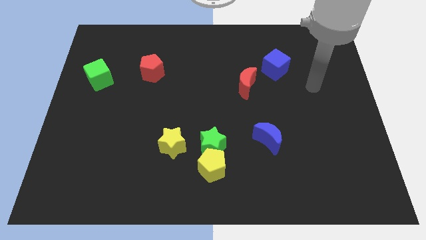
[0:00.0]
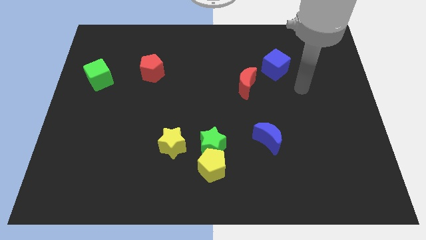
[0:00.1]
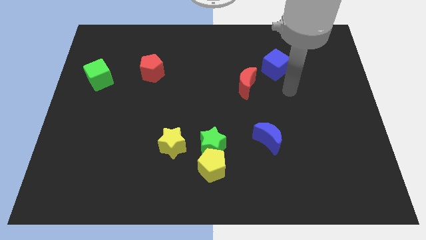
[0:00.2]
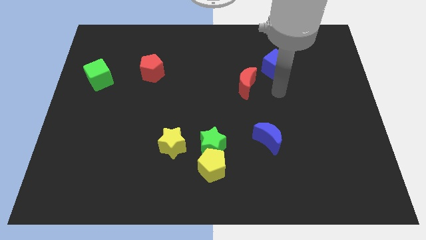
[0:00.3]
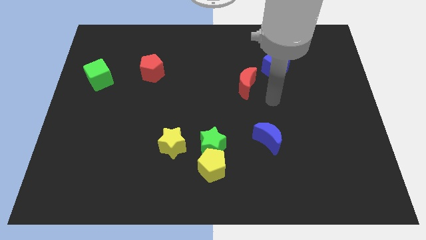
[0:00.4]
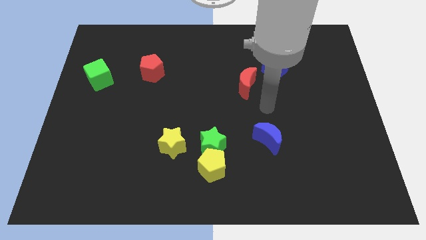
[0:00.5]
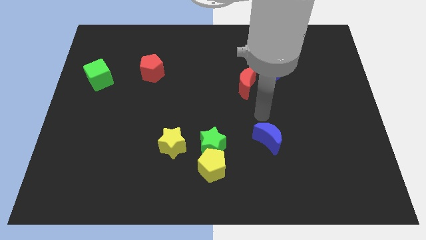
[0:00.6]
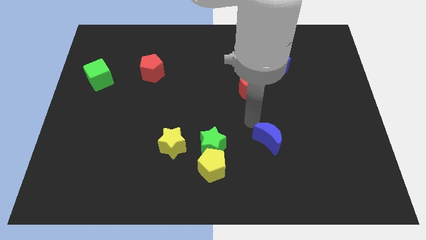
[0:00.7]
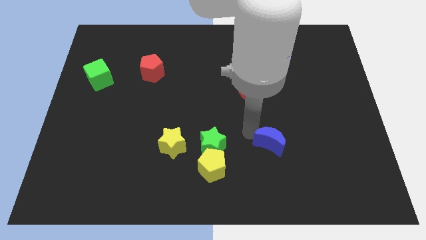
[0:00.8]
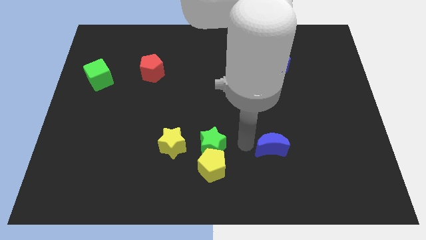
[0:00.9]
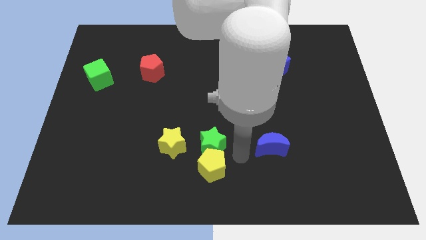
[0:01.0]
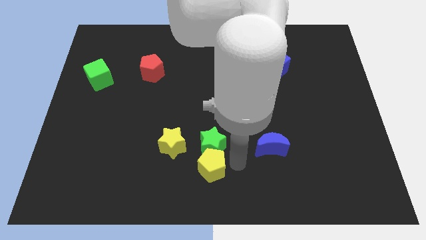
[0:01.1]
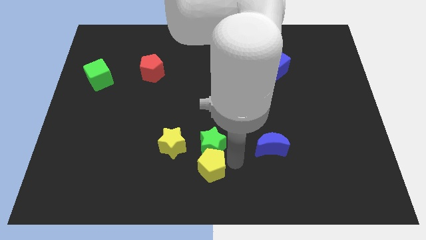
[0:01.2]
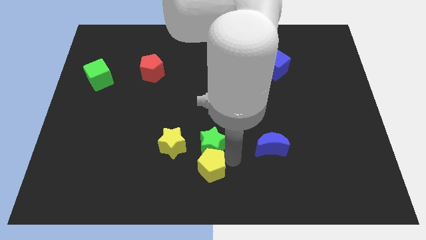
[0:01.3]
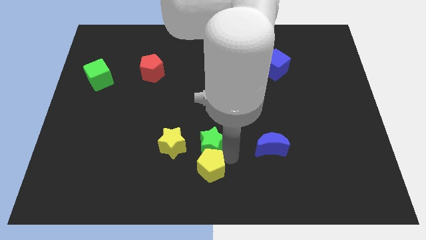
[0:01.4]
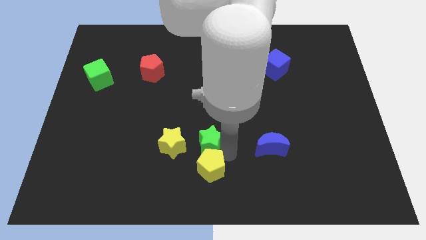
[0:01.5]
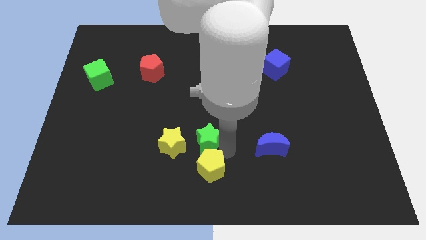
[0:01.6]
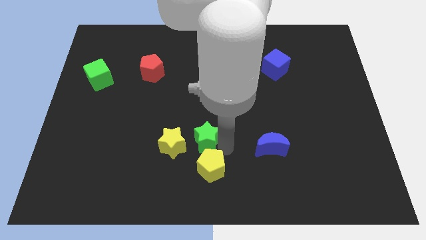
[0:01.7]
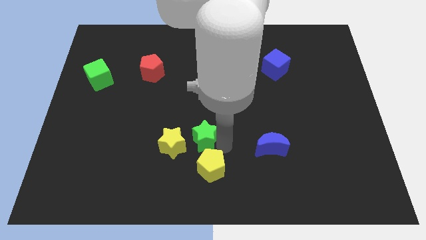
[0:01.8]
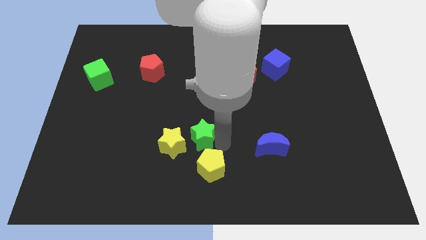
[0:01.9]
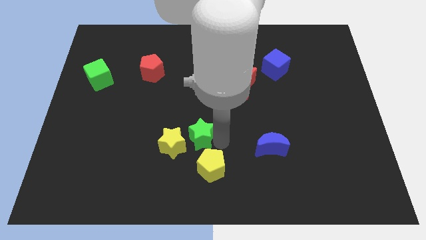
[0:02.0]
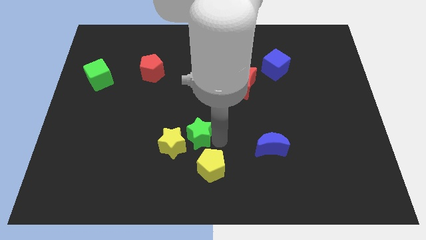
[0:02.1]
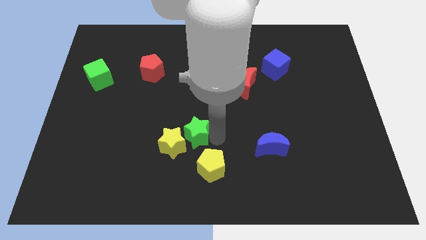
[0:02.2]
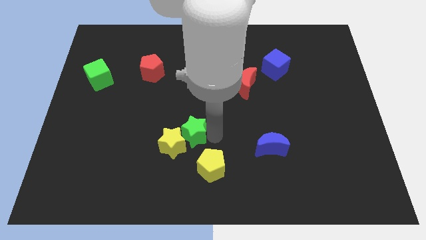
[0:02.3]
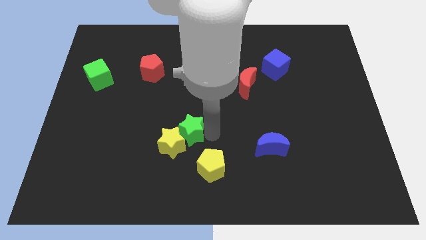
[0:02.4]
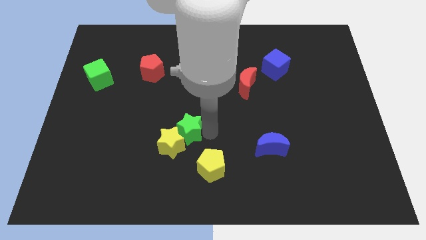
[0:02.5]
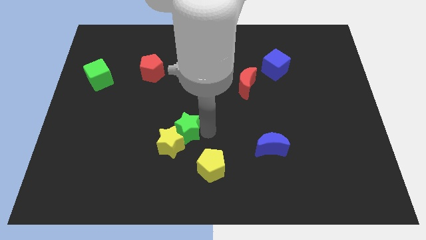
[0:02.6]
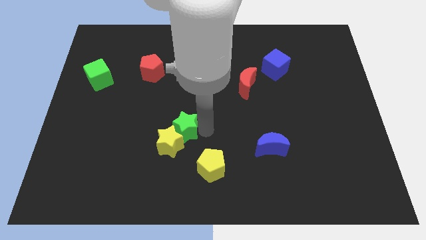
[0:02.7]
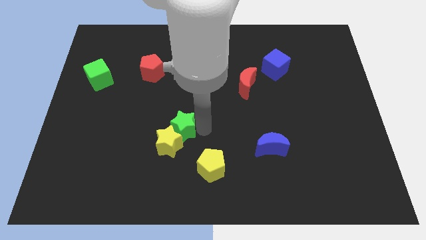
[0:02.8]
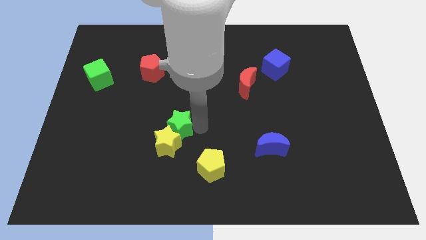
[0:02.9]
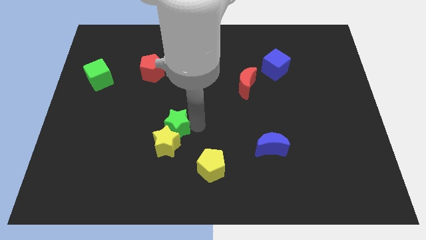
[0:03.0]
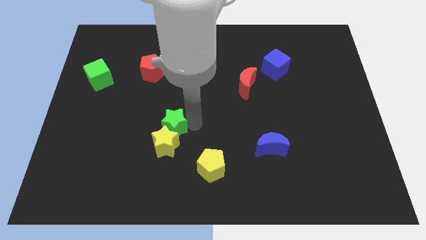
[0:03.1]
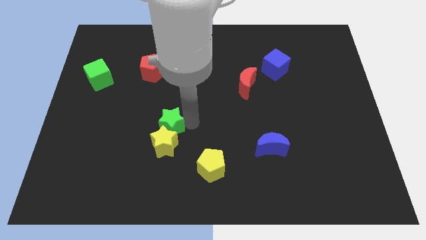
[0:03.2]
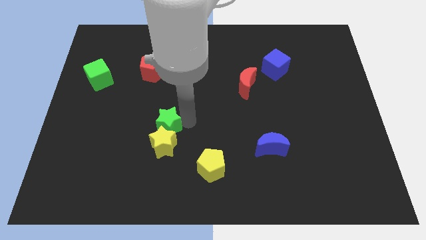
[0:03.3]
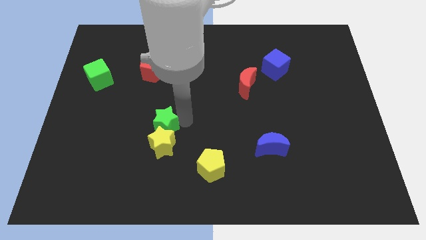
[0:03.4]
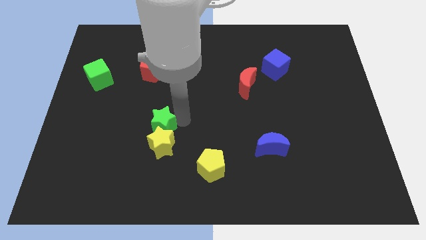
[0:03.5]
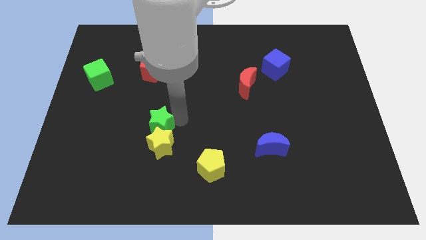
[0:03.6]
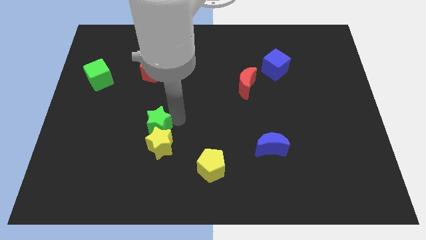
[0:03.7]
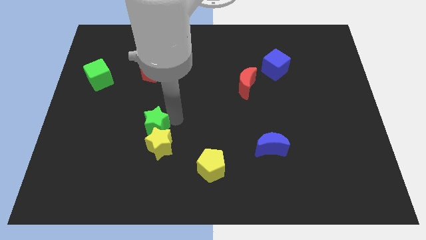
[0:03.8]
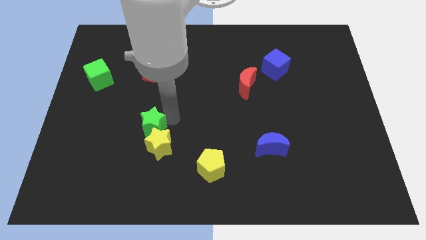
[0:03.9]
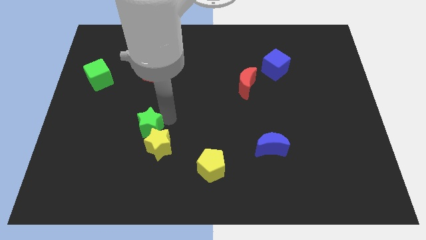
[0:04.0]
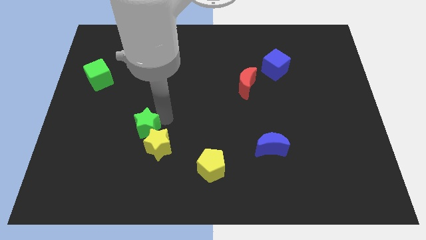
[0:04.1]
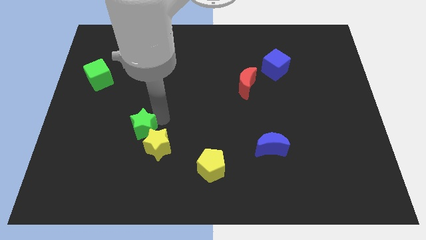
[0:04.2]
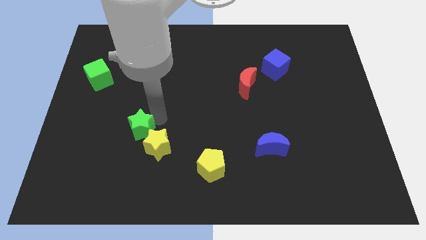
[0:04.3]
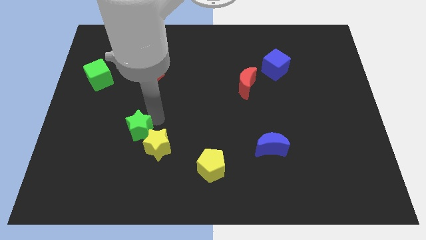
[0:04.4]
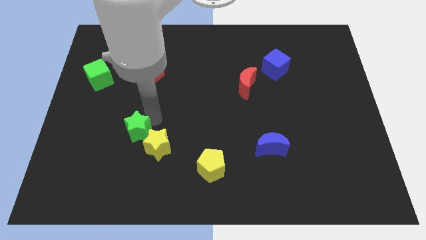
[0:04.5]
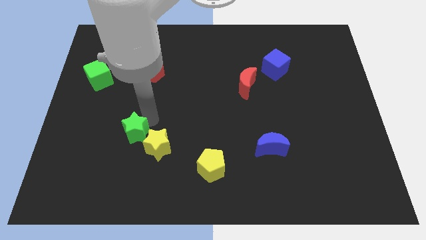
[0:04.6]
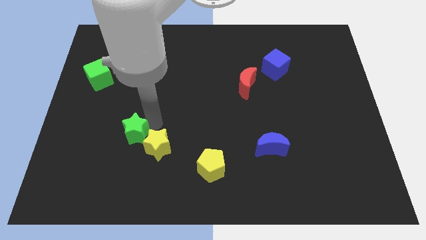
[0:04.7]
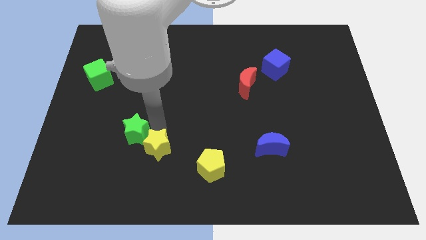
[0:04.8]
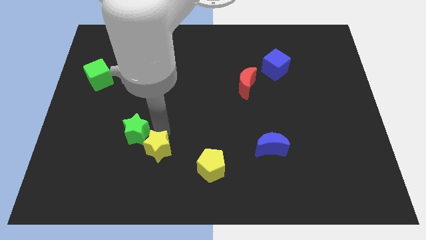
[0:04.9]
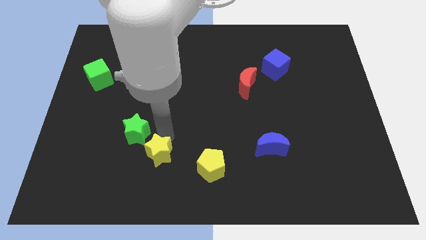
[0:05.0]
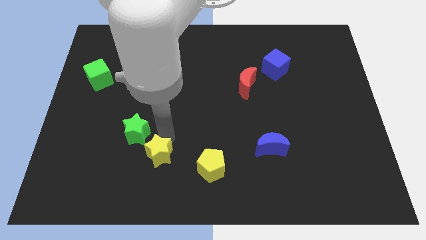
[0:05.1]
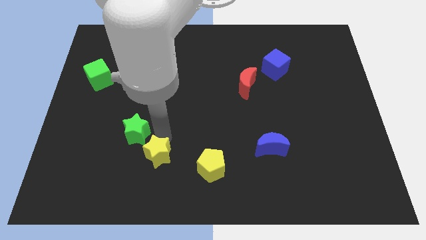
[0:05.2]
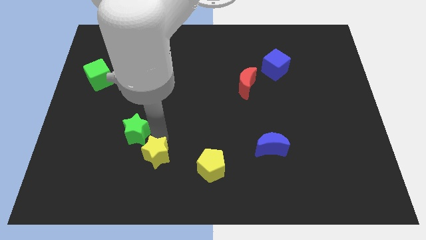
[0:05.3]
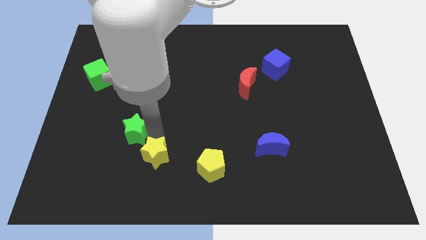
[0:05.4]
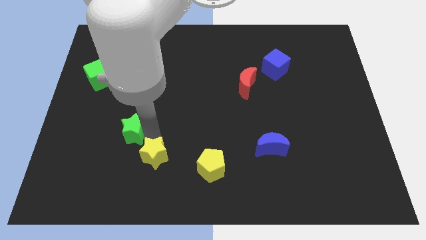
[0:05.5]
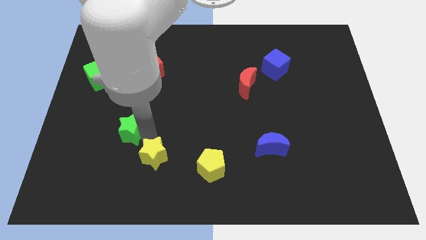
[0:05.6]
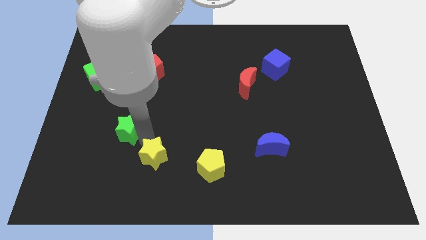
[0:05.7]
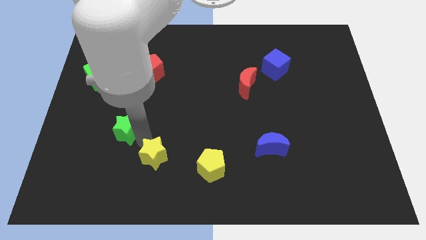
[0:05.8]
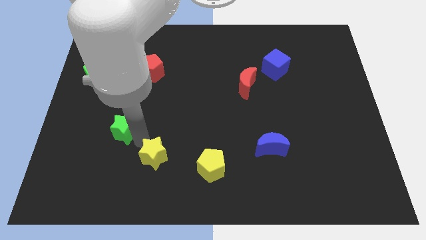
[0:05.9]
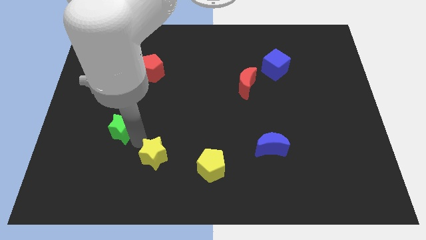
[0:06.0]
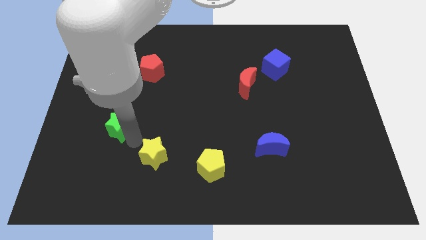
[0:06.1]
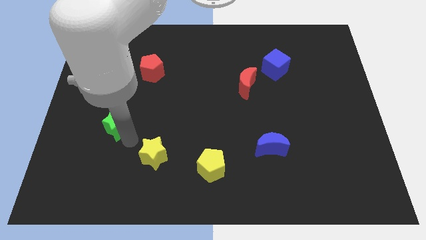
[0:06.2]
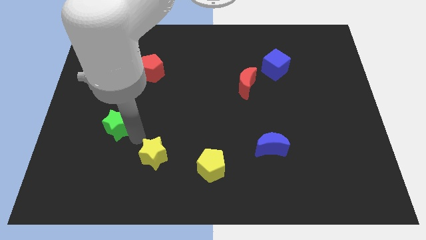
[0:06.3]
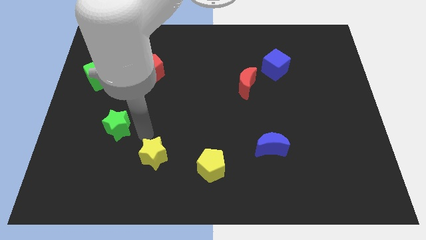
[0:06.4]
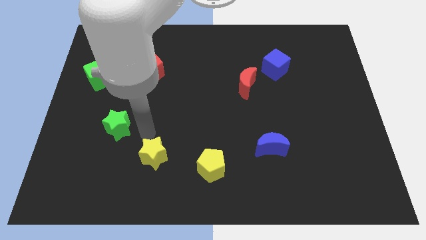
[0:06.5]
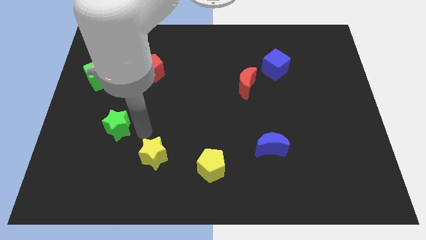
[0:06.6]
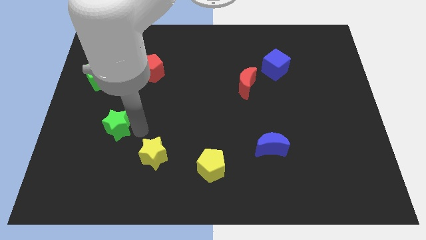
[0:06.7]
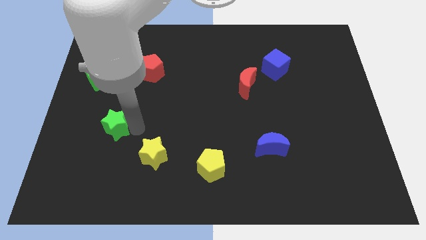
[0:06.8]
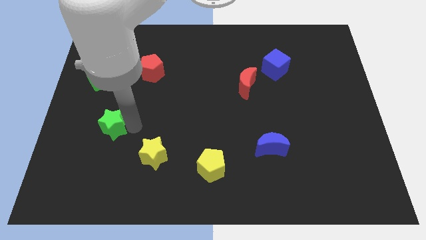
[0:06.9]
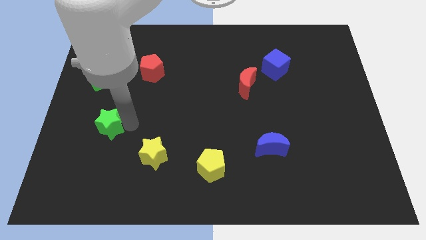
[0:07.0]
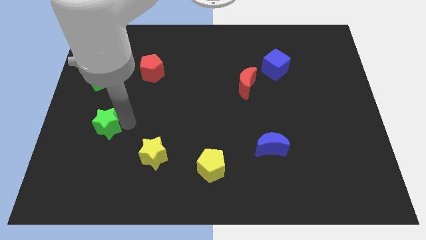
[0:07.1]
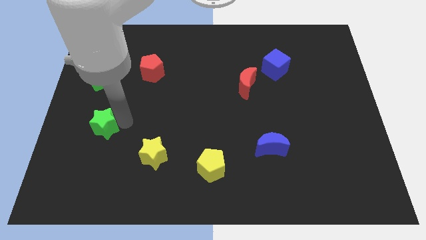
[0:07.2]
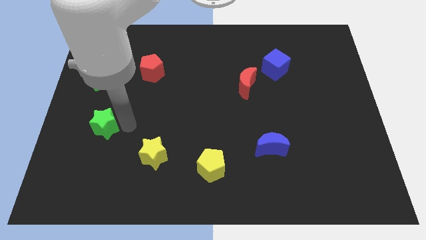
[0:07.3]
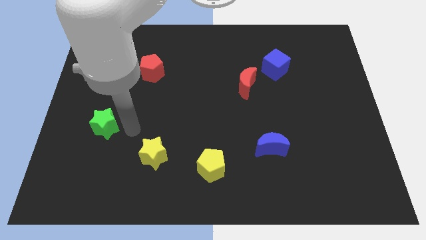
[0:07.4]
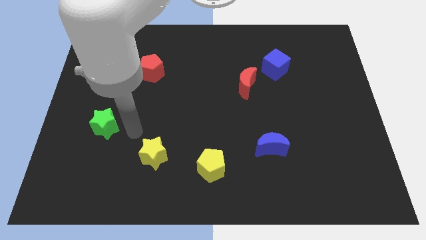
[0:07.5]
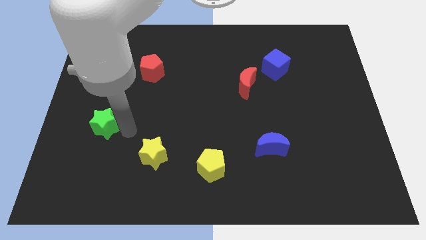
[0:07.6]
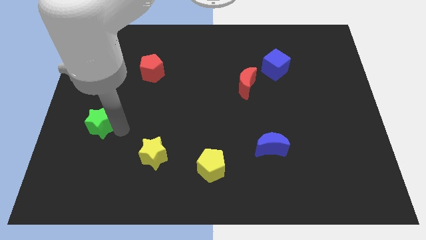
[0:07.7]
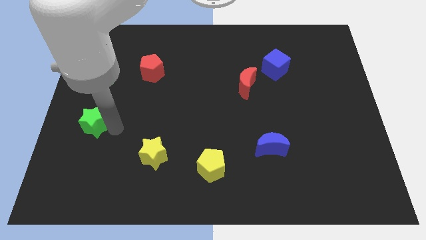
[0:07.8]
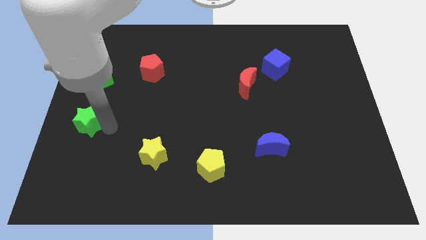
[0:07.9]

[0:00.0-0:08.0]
slide the green star to the center left
